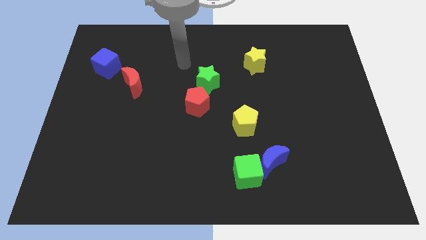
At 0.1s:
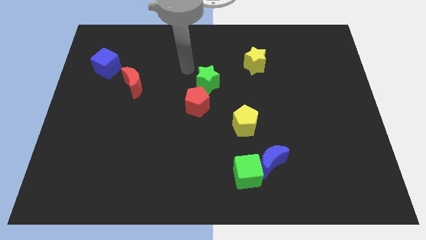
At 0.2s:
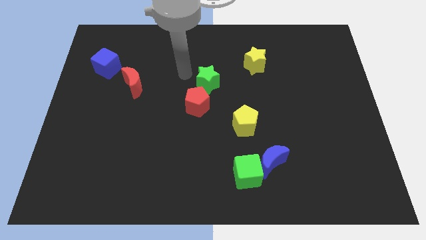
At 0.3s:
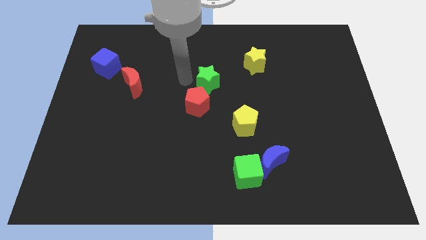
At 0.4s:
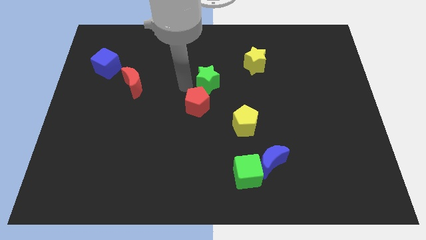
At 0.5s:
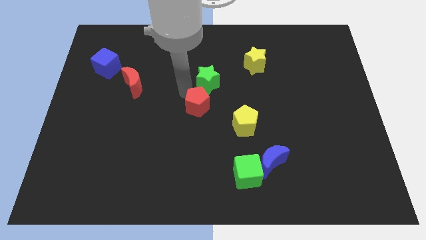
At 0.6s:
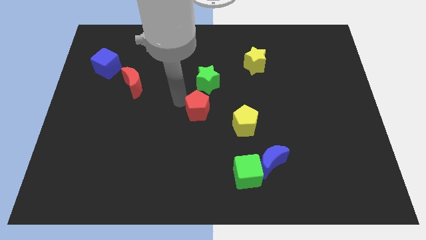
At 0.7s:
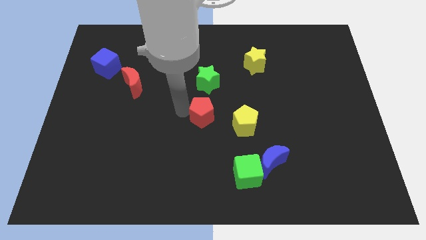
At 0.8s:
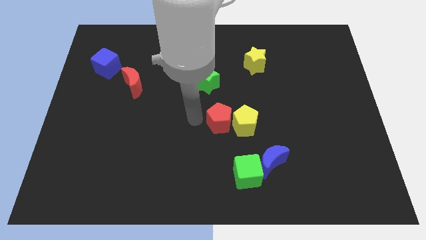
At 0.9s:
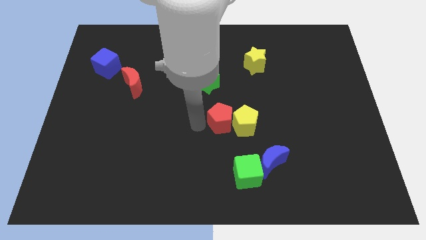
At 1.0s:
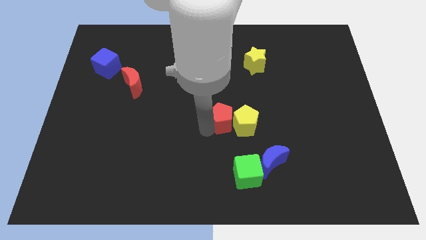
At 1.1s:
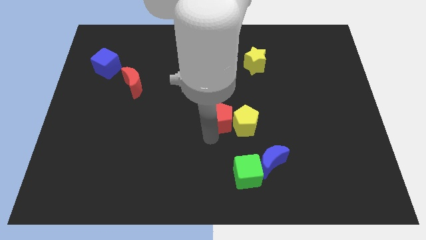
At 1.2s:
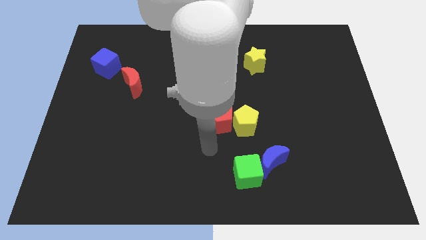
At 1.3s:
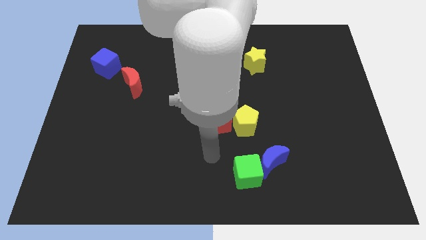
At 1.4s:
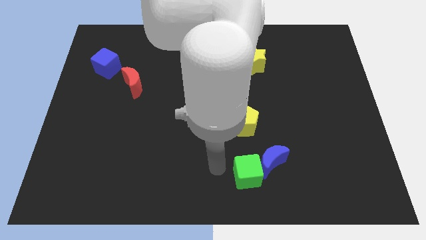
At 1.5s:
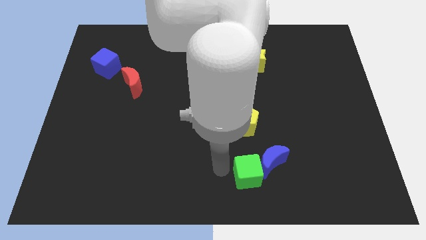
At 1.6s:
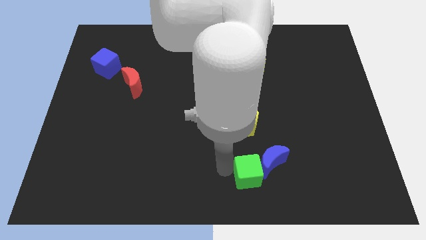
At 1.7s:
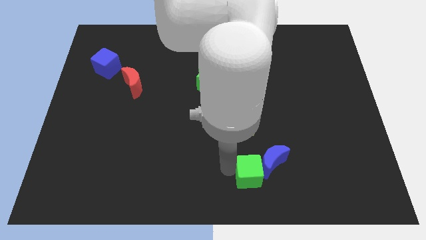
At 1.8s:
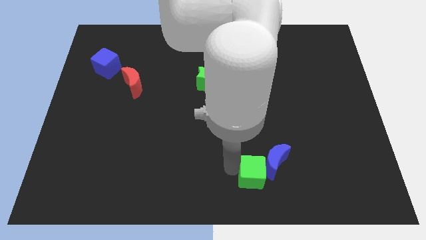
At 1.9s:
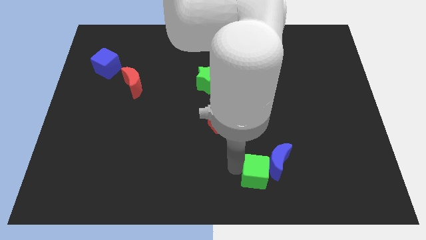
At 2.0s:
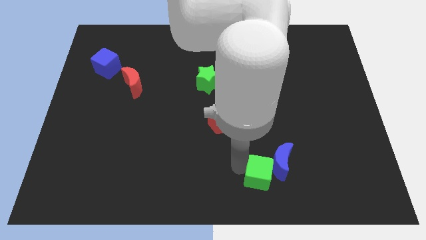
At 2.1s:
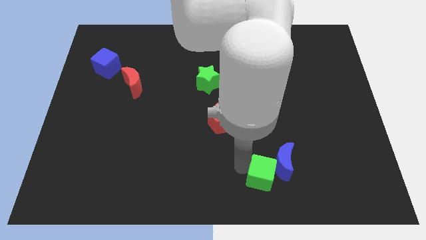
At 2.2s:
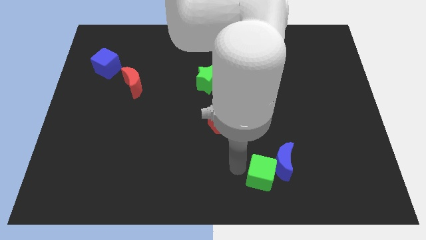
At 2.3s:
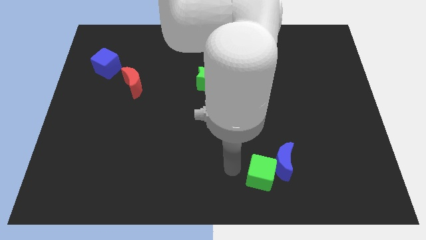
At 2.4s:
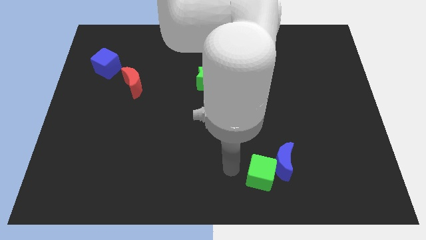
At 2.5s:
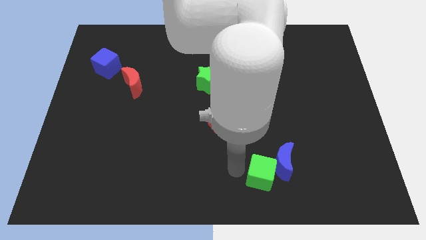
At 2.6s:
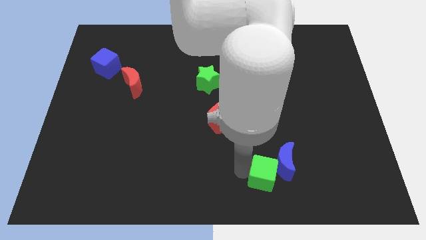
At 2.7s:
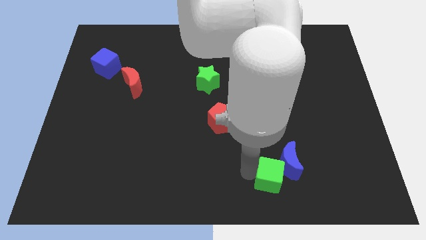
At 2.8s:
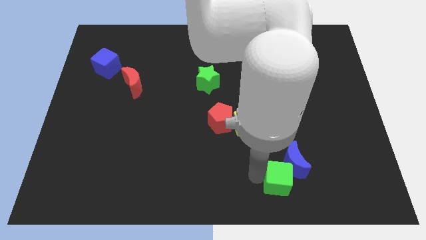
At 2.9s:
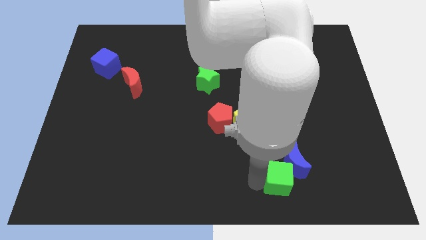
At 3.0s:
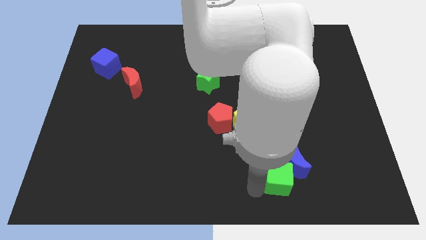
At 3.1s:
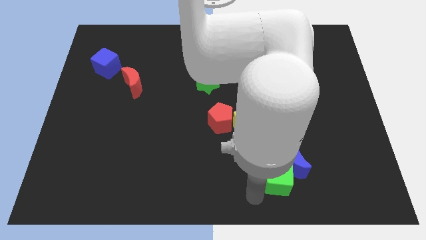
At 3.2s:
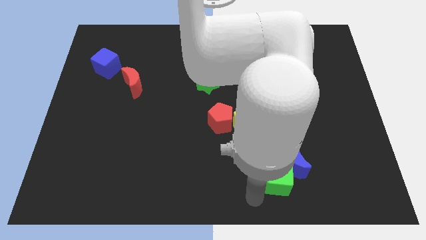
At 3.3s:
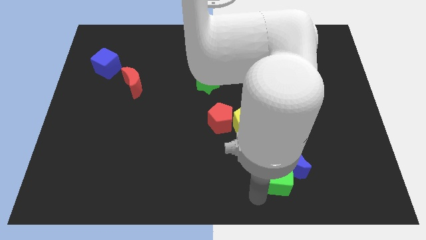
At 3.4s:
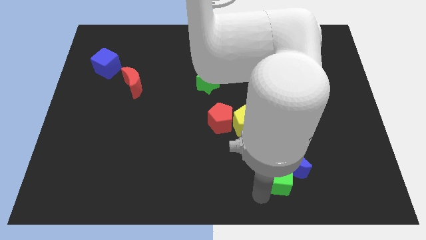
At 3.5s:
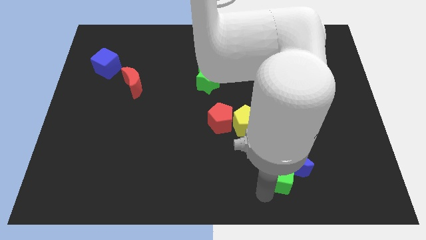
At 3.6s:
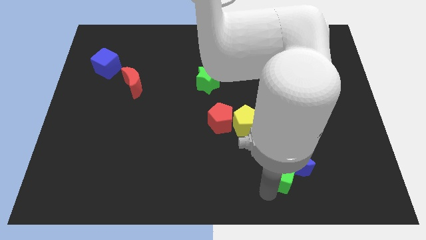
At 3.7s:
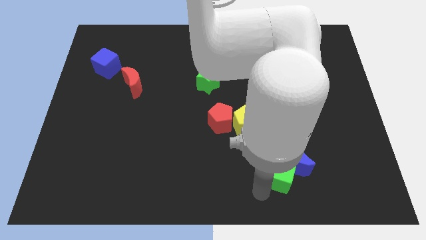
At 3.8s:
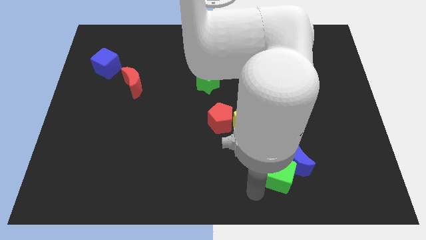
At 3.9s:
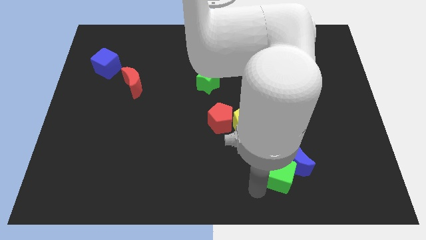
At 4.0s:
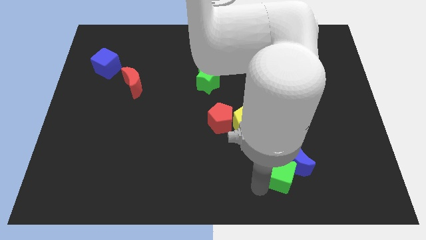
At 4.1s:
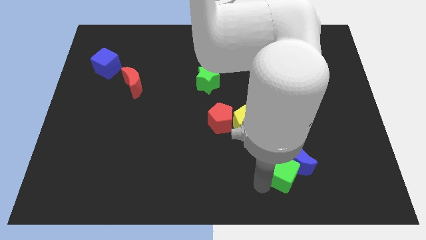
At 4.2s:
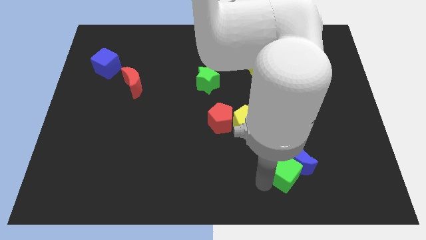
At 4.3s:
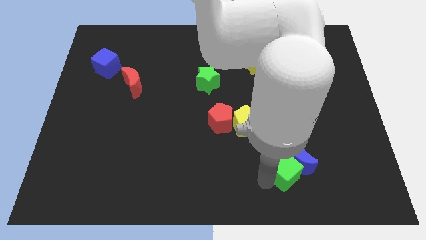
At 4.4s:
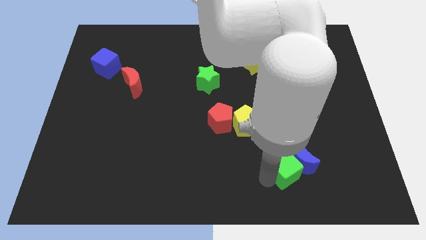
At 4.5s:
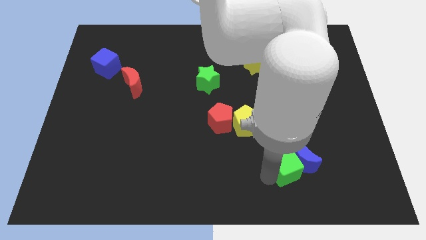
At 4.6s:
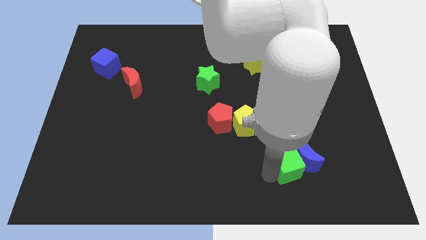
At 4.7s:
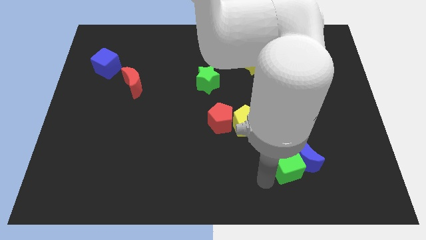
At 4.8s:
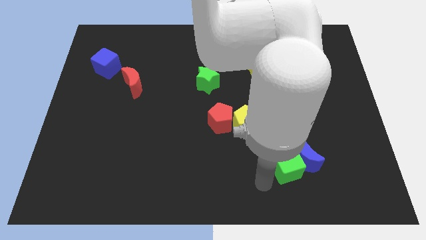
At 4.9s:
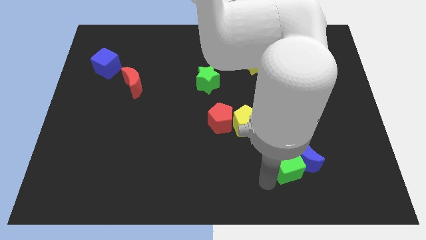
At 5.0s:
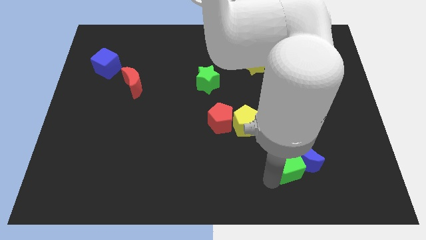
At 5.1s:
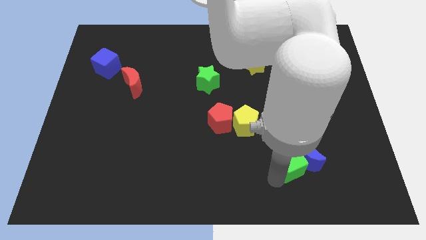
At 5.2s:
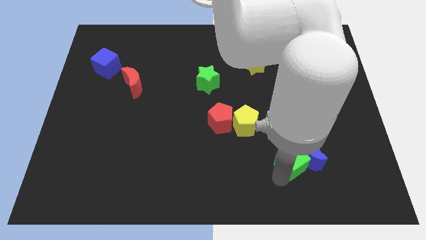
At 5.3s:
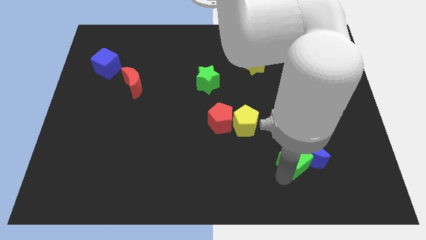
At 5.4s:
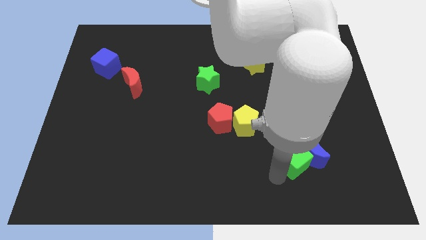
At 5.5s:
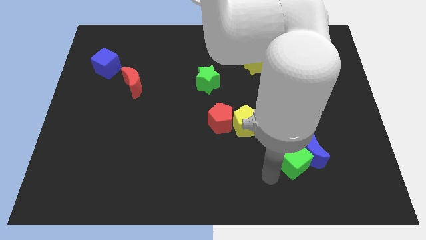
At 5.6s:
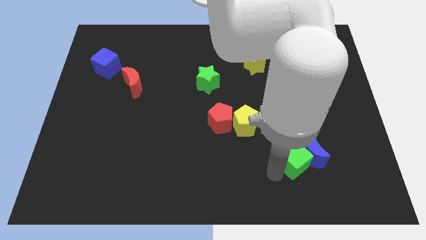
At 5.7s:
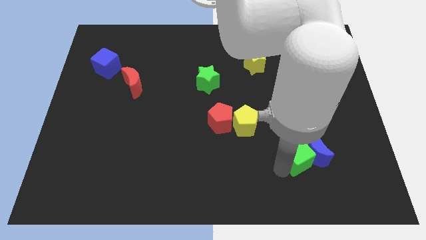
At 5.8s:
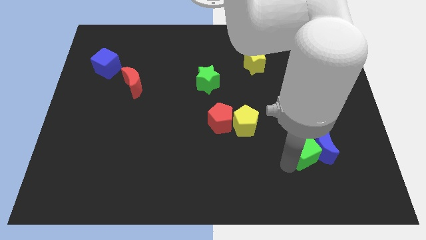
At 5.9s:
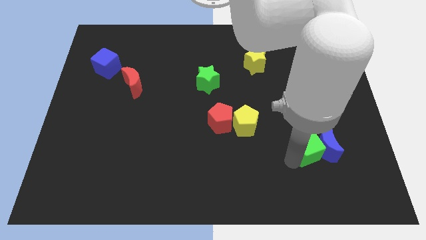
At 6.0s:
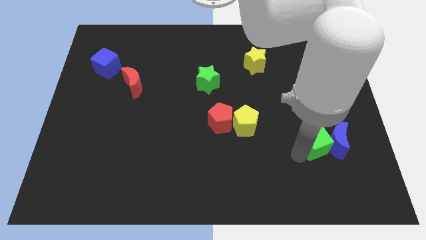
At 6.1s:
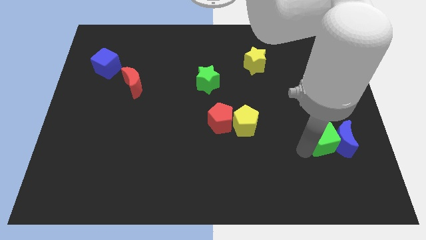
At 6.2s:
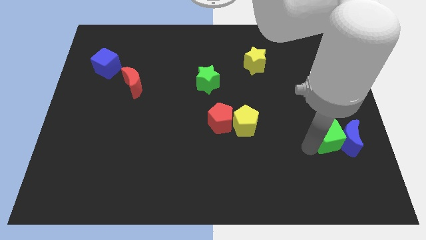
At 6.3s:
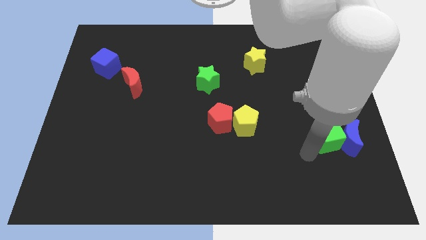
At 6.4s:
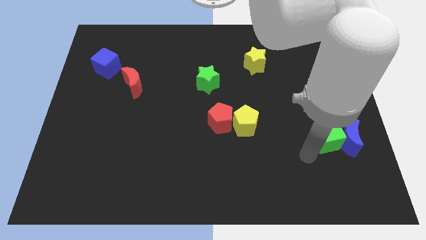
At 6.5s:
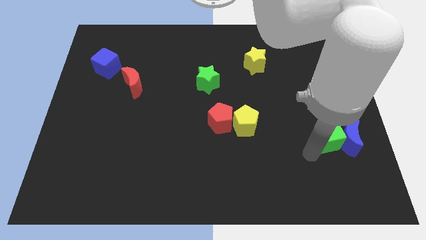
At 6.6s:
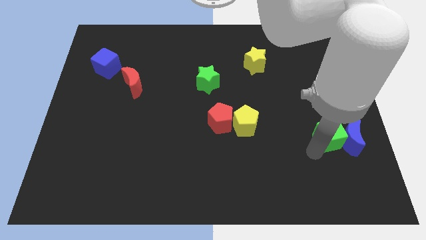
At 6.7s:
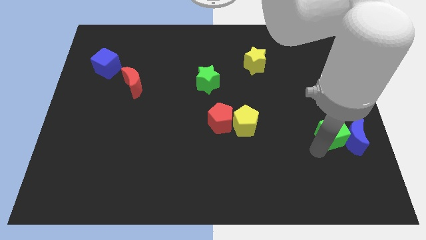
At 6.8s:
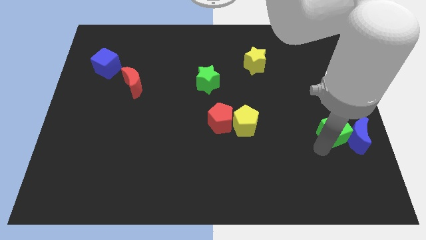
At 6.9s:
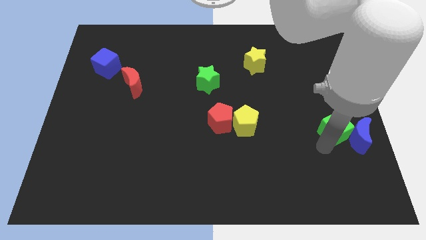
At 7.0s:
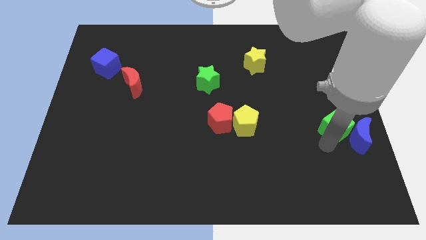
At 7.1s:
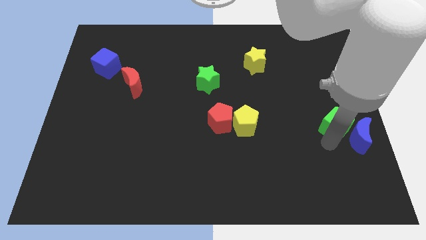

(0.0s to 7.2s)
move the green cube to the right side of the board

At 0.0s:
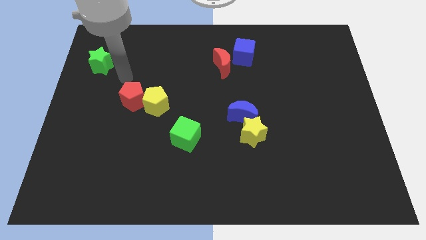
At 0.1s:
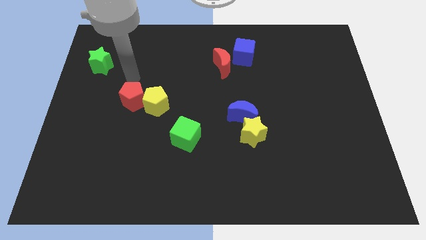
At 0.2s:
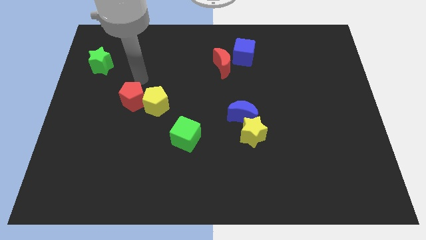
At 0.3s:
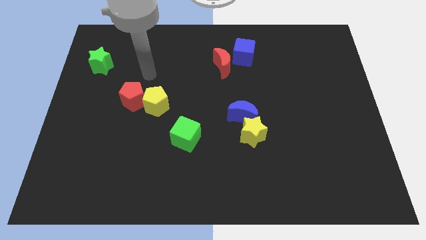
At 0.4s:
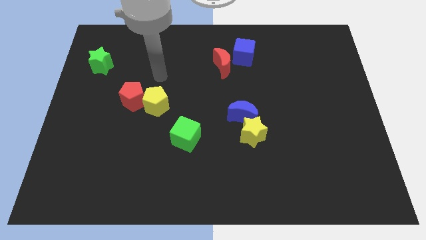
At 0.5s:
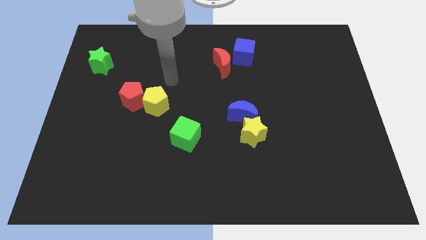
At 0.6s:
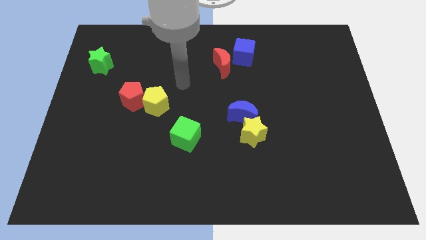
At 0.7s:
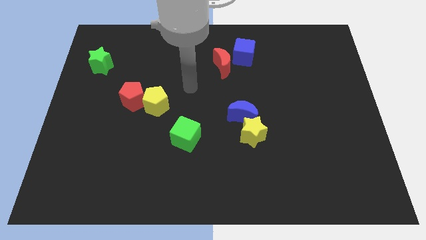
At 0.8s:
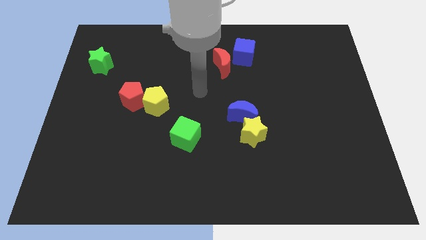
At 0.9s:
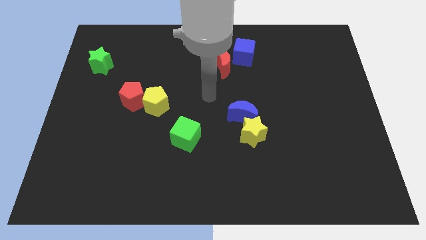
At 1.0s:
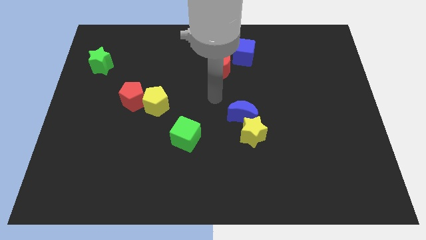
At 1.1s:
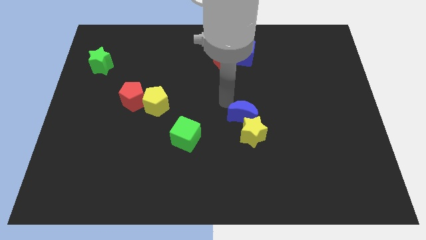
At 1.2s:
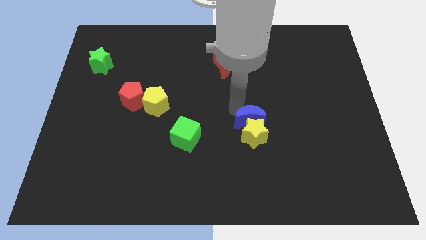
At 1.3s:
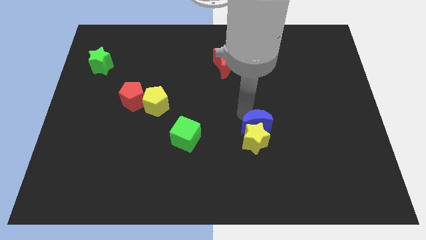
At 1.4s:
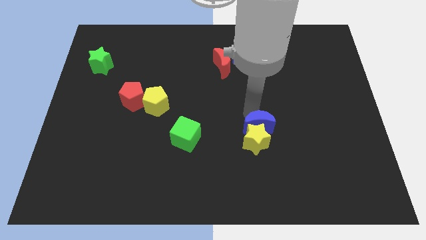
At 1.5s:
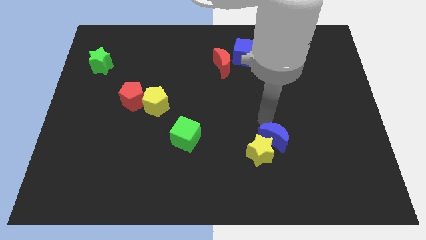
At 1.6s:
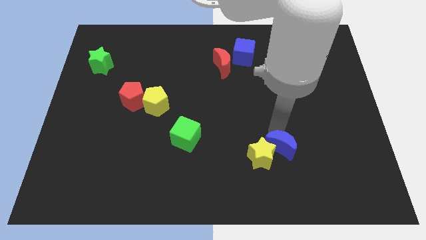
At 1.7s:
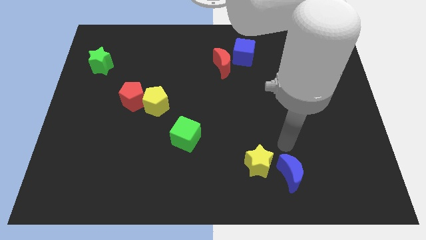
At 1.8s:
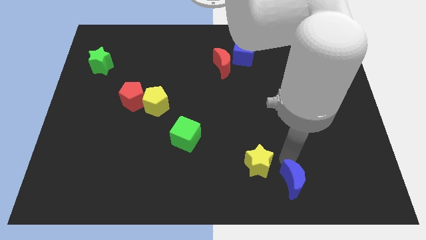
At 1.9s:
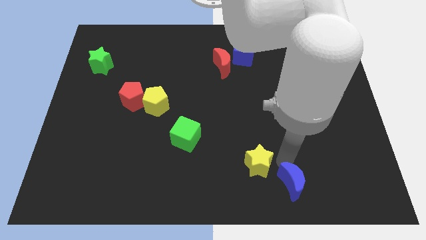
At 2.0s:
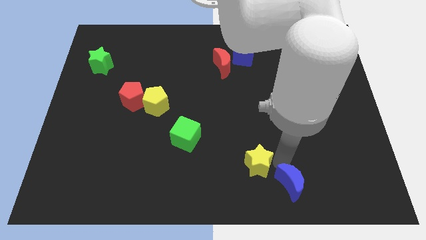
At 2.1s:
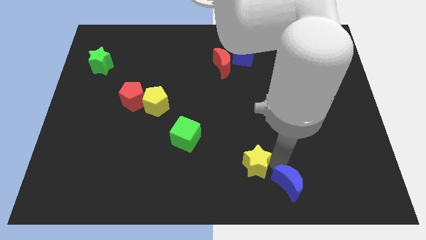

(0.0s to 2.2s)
move the yellow star to the bottom side
